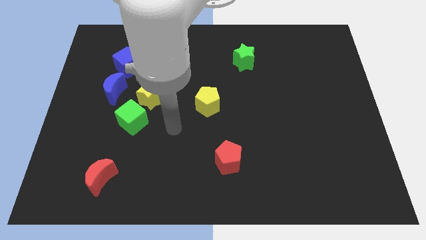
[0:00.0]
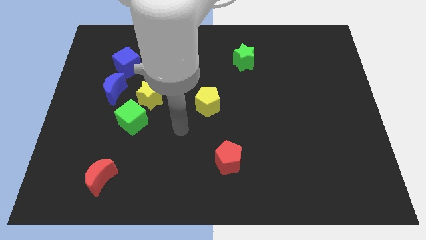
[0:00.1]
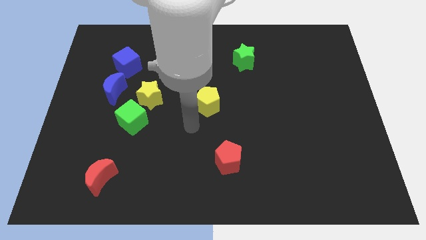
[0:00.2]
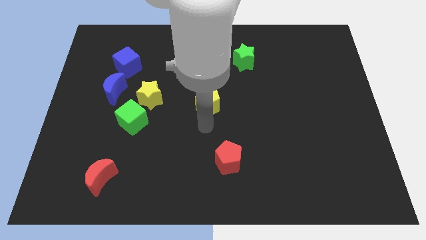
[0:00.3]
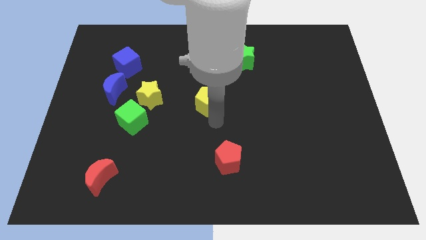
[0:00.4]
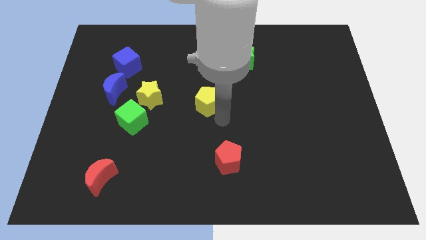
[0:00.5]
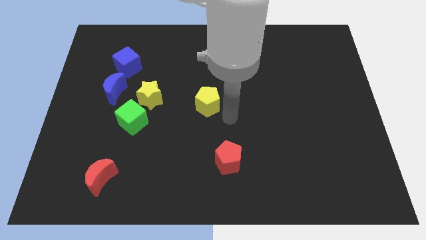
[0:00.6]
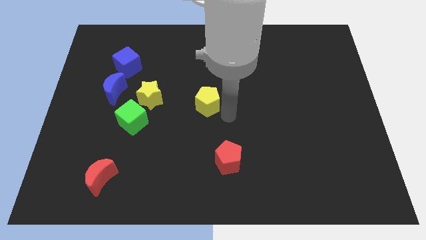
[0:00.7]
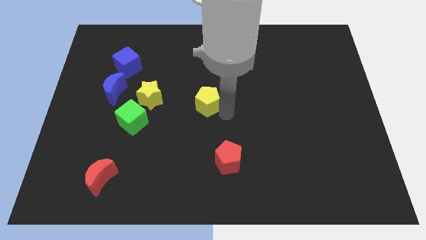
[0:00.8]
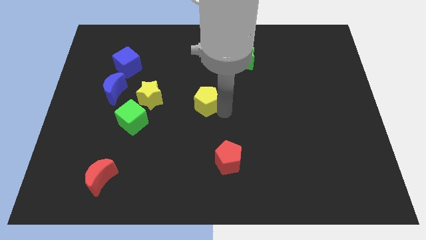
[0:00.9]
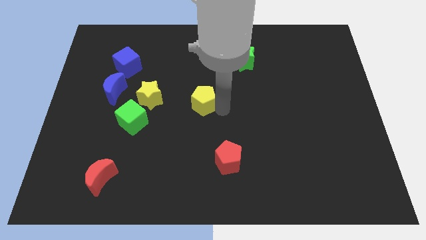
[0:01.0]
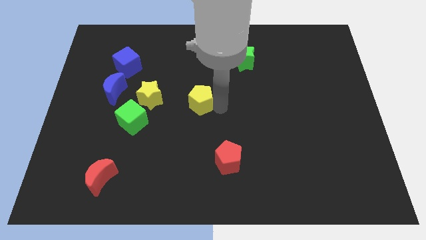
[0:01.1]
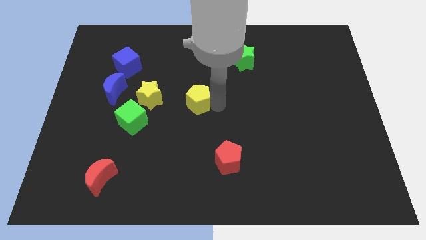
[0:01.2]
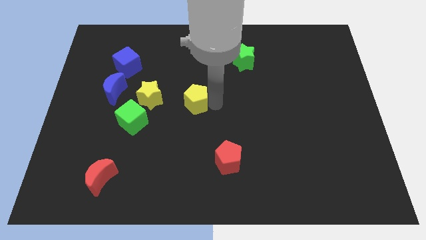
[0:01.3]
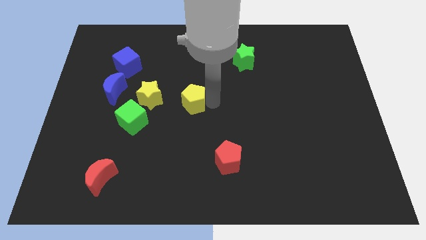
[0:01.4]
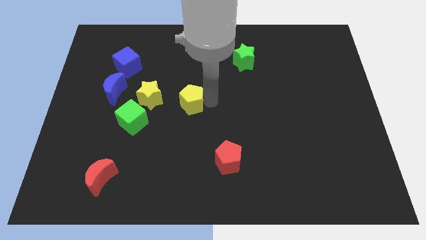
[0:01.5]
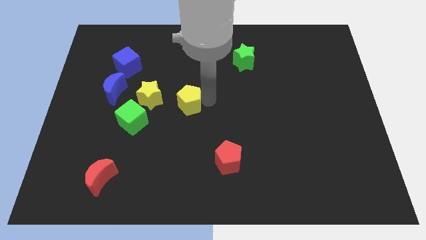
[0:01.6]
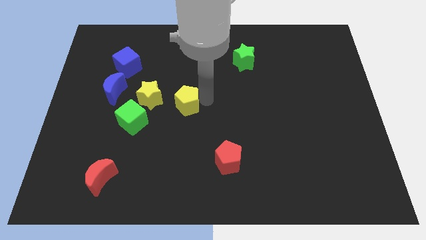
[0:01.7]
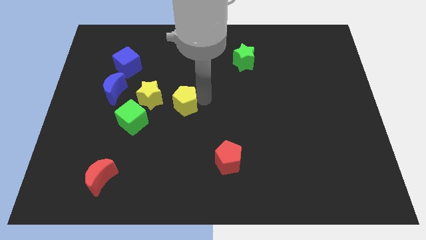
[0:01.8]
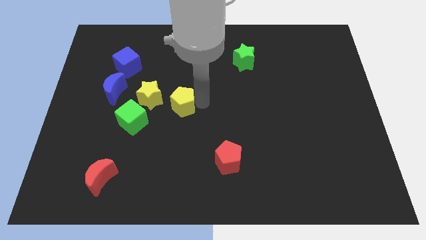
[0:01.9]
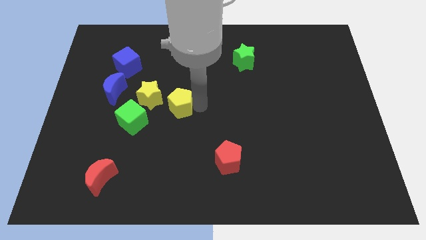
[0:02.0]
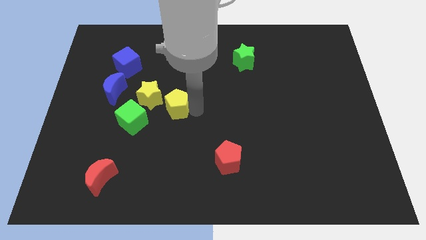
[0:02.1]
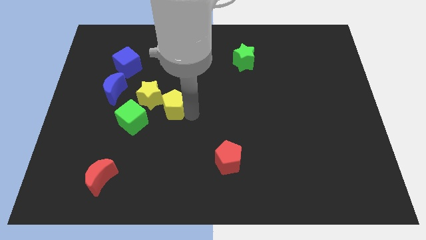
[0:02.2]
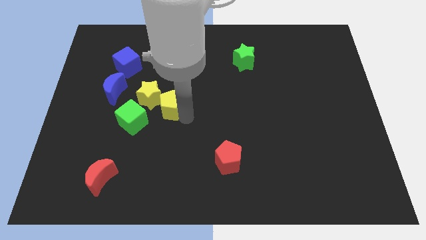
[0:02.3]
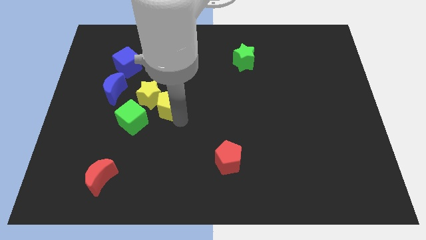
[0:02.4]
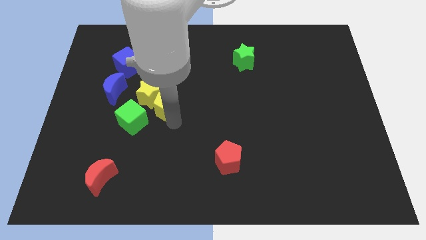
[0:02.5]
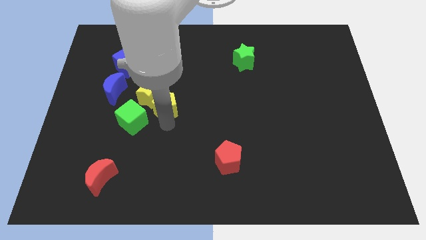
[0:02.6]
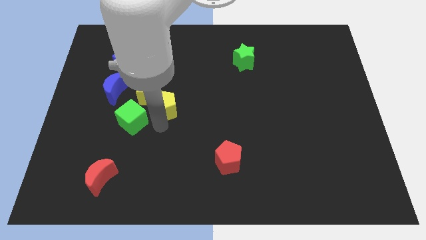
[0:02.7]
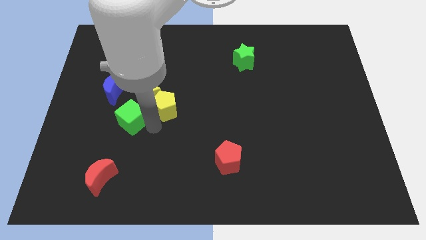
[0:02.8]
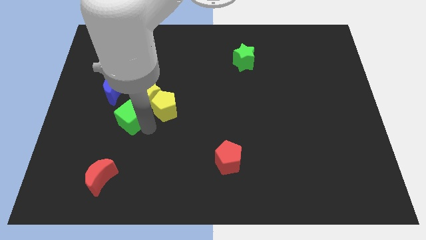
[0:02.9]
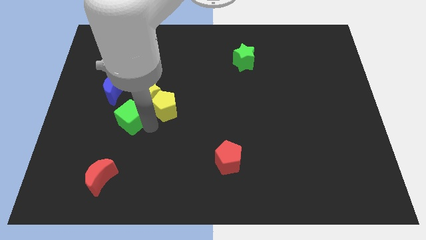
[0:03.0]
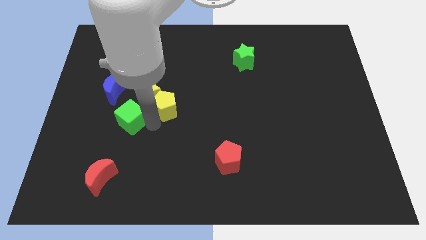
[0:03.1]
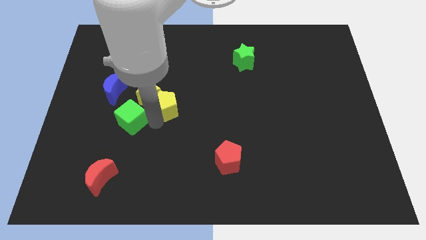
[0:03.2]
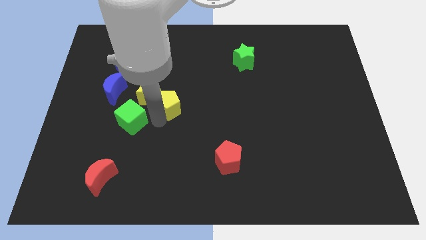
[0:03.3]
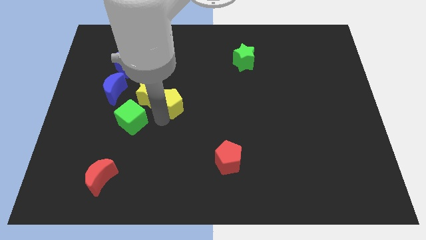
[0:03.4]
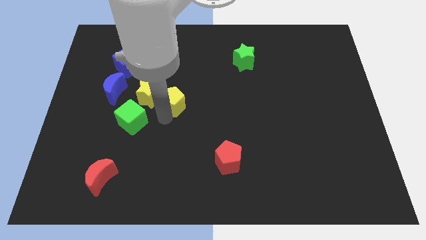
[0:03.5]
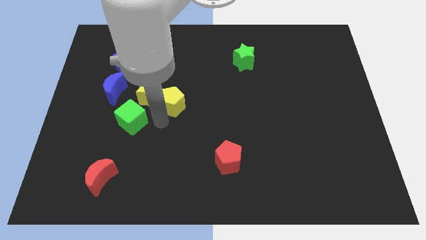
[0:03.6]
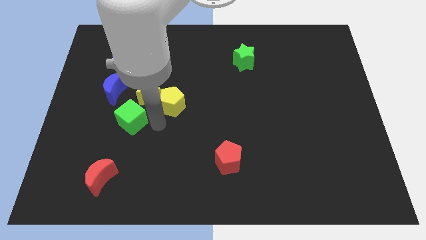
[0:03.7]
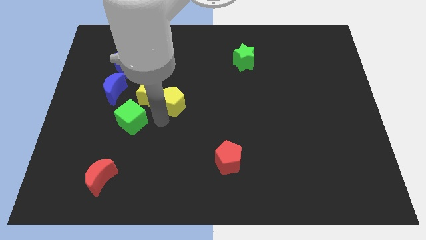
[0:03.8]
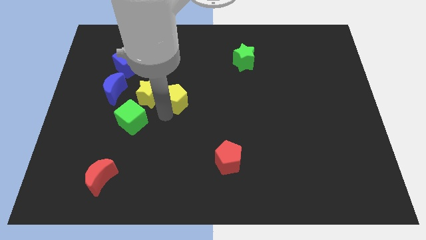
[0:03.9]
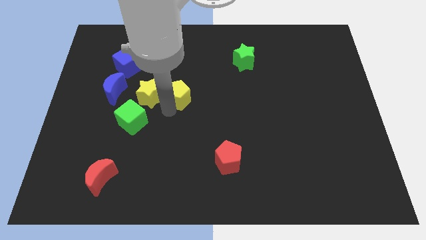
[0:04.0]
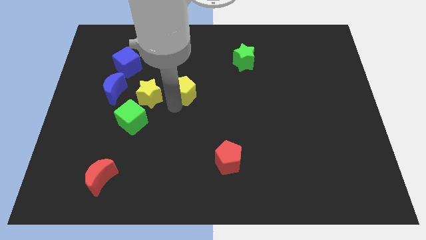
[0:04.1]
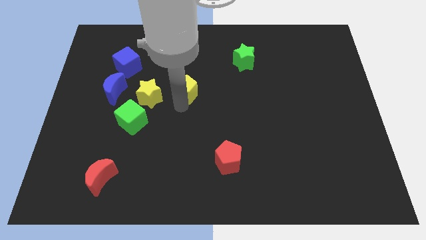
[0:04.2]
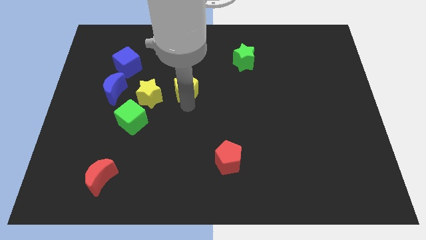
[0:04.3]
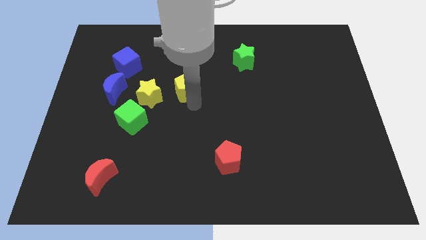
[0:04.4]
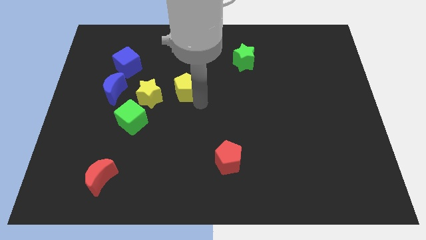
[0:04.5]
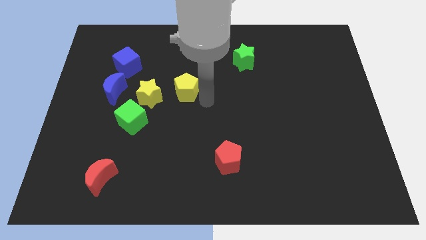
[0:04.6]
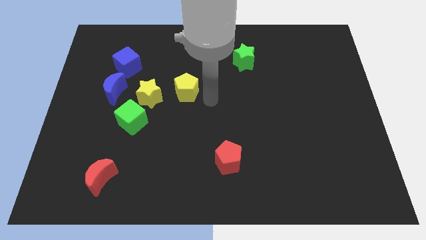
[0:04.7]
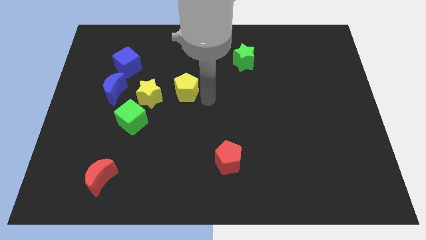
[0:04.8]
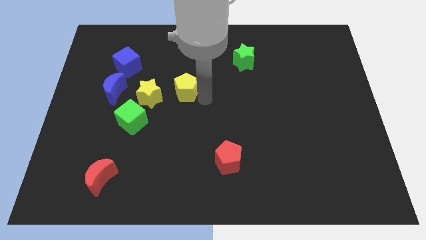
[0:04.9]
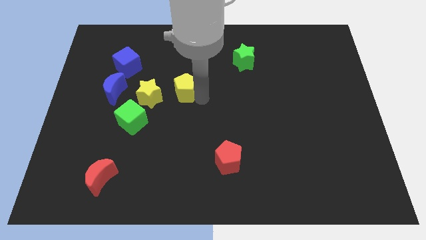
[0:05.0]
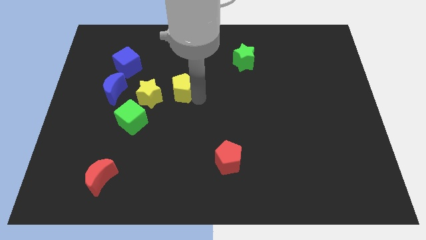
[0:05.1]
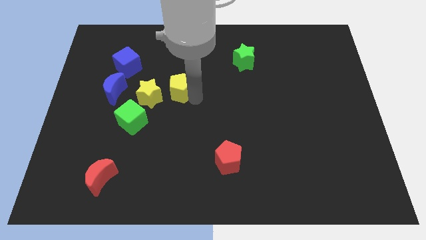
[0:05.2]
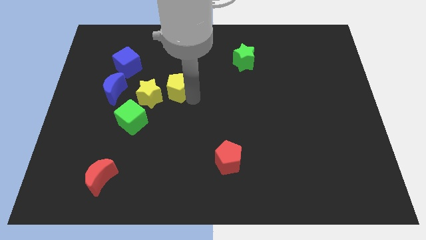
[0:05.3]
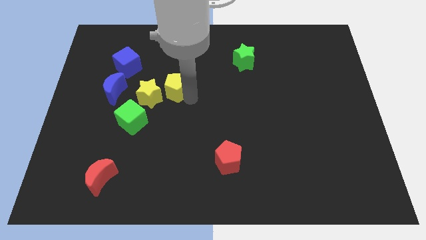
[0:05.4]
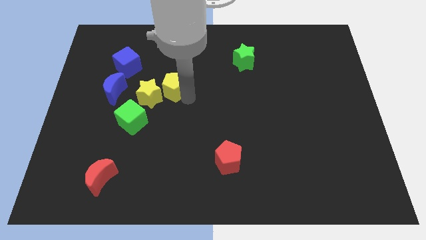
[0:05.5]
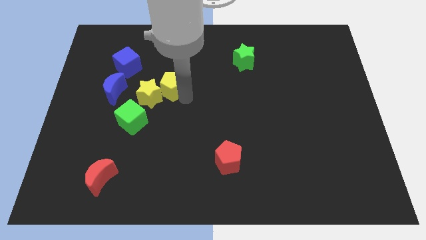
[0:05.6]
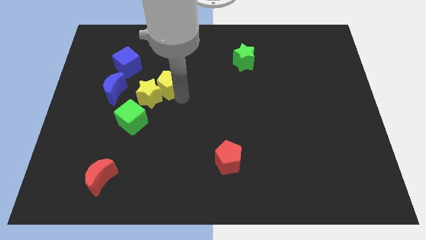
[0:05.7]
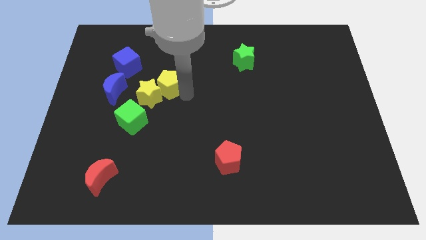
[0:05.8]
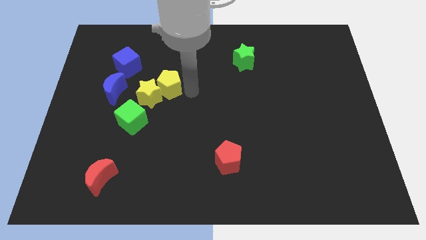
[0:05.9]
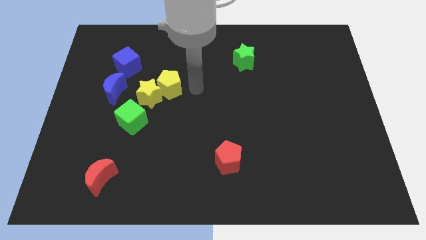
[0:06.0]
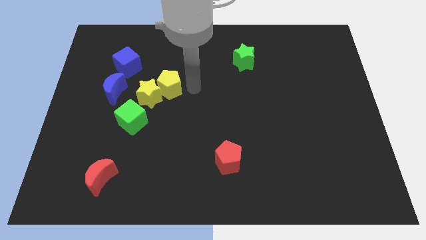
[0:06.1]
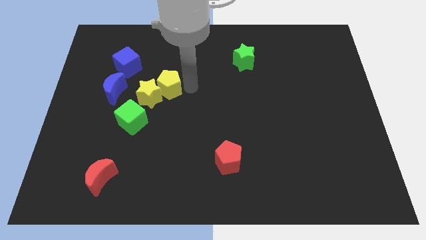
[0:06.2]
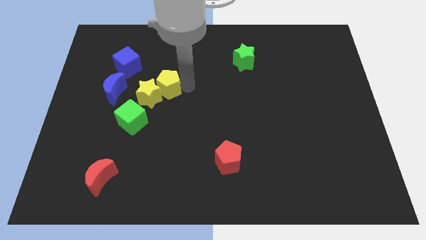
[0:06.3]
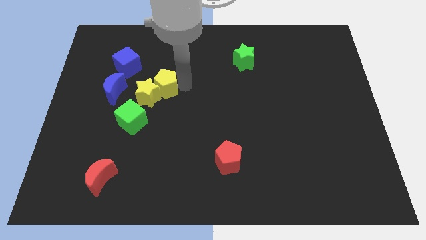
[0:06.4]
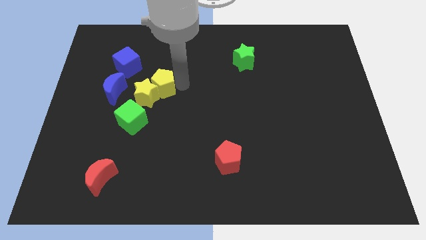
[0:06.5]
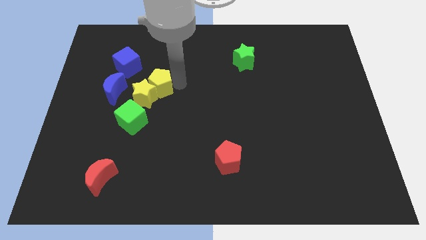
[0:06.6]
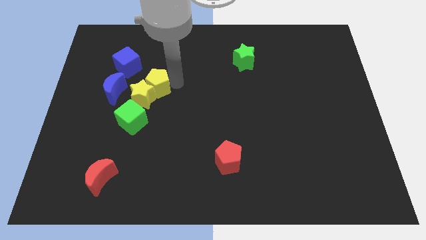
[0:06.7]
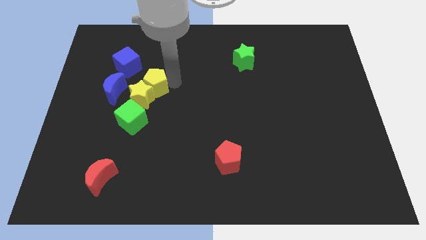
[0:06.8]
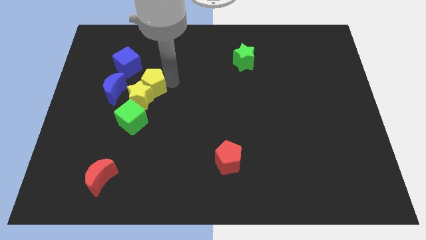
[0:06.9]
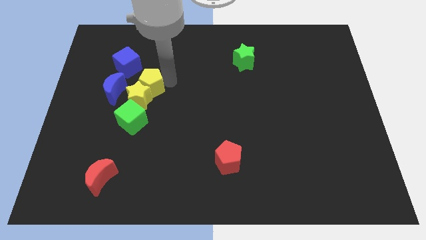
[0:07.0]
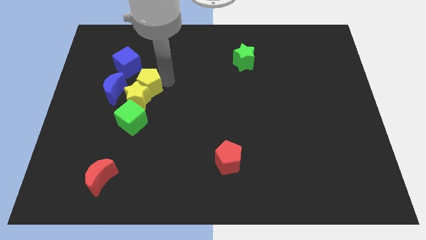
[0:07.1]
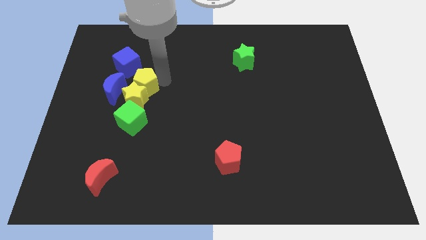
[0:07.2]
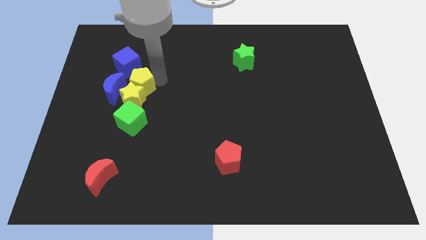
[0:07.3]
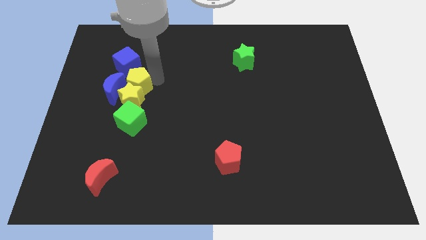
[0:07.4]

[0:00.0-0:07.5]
move the yellow pentagon close to the blue moon
